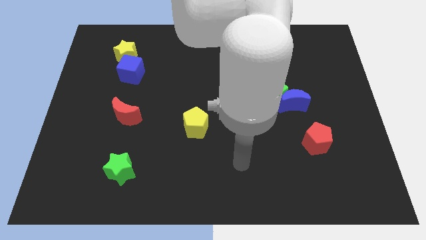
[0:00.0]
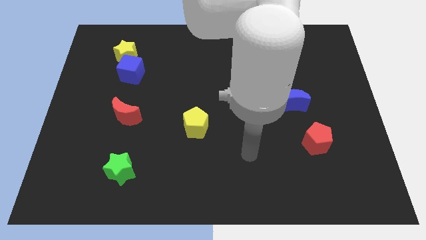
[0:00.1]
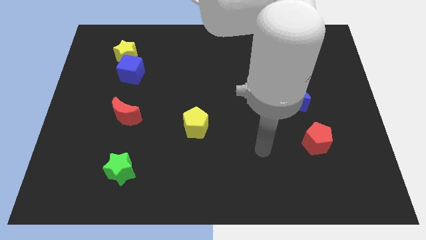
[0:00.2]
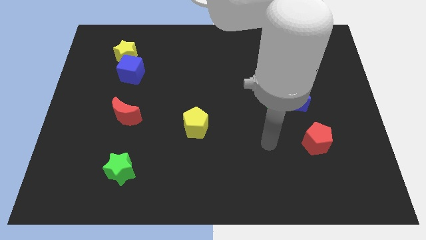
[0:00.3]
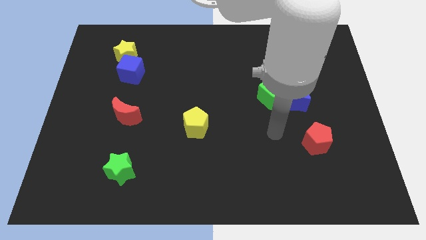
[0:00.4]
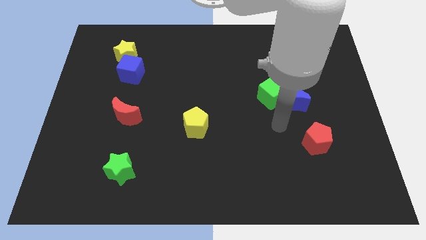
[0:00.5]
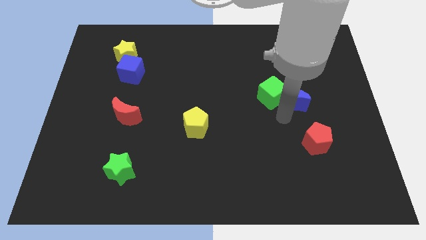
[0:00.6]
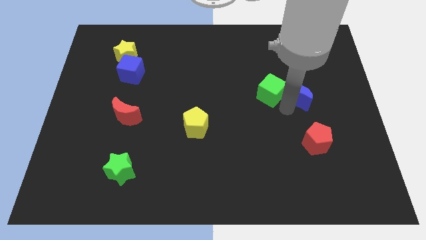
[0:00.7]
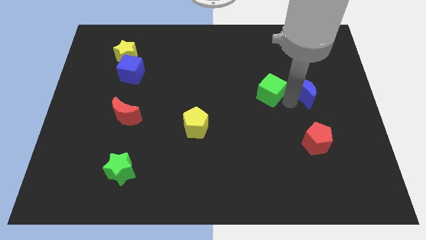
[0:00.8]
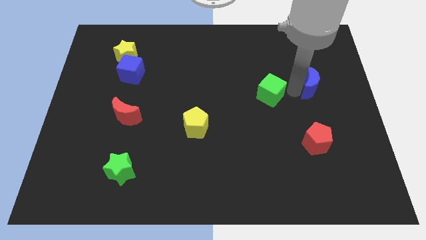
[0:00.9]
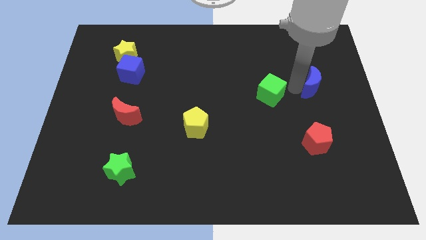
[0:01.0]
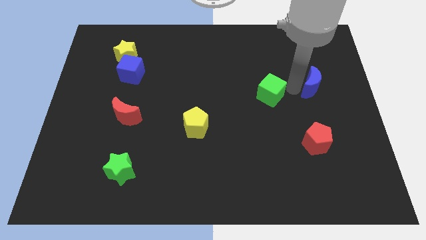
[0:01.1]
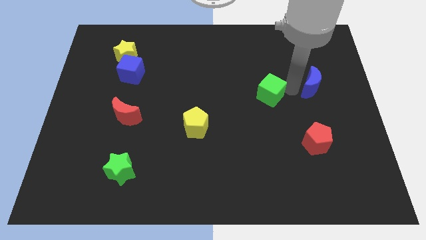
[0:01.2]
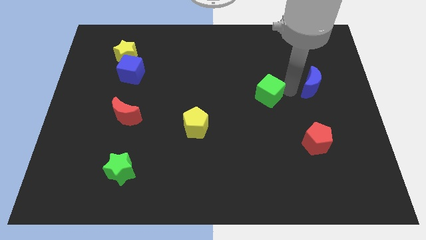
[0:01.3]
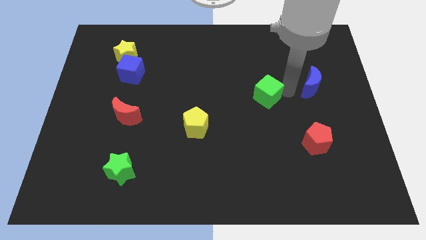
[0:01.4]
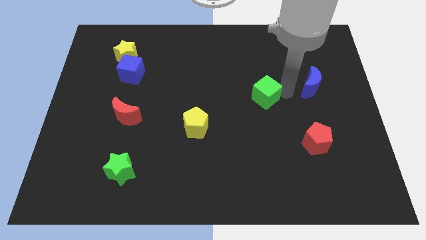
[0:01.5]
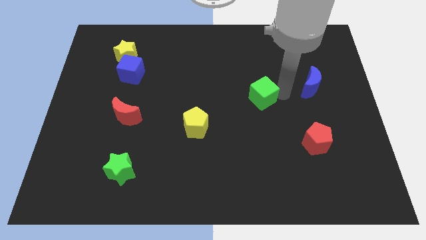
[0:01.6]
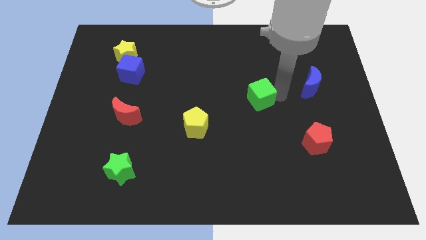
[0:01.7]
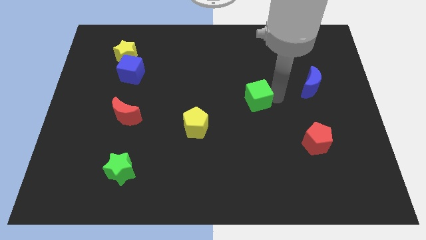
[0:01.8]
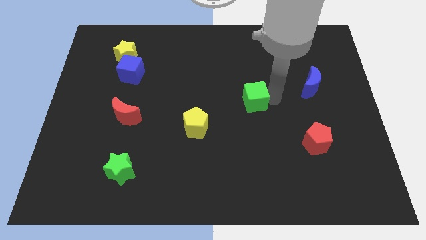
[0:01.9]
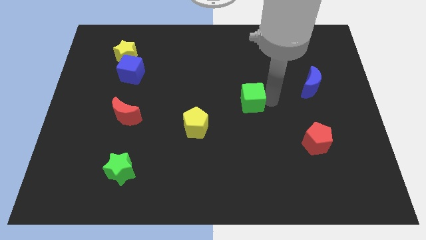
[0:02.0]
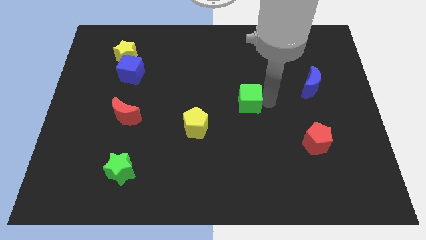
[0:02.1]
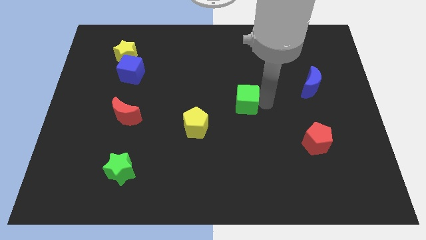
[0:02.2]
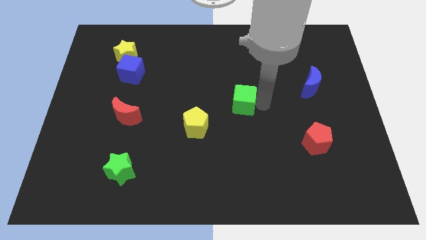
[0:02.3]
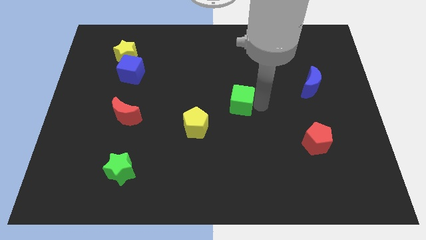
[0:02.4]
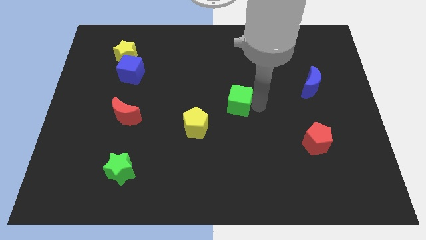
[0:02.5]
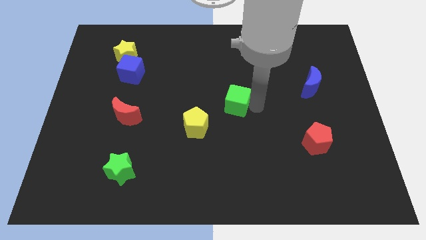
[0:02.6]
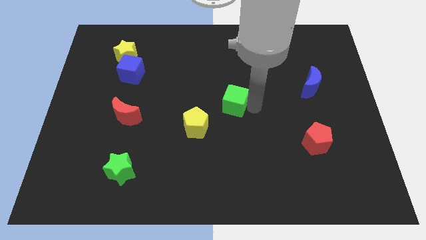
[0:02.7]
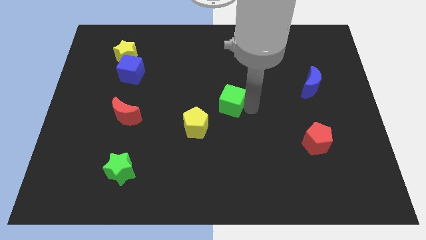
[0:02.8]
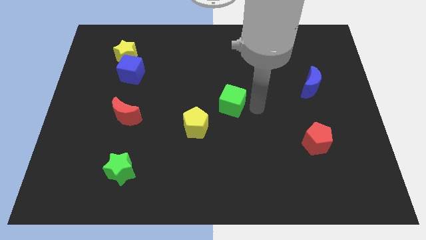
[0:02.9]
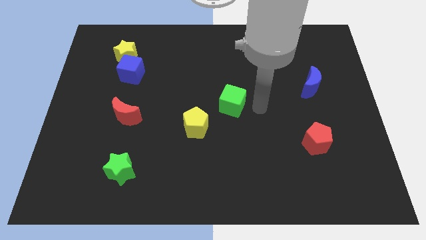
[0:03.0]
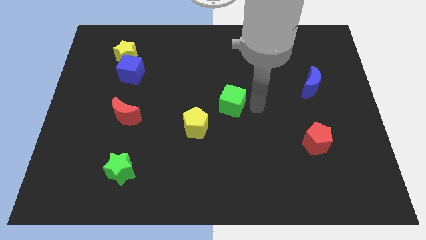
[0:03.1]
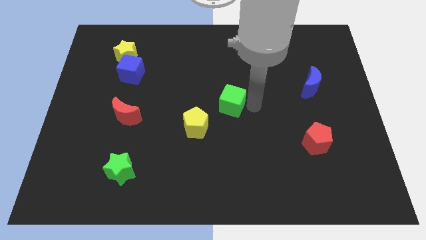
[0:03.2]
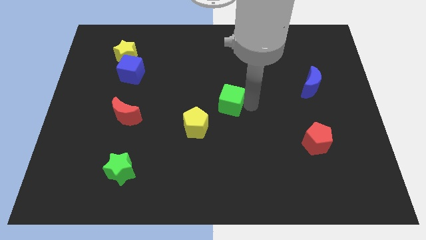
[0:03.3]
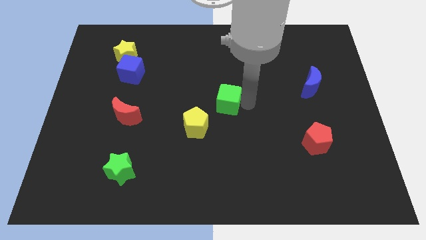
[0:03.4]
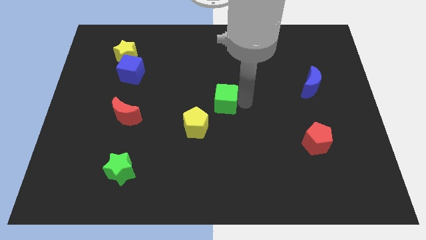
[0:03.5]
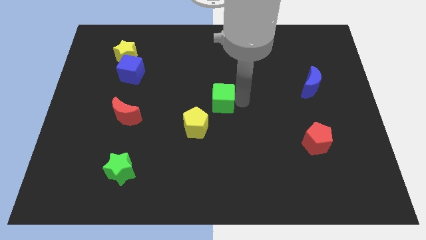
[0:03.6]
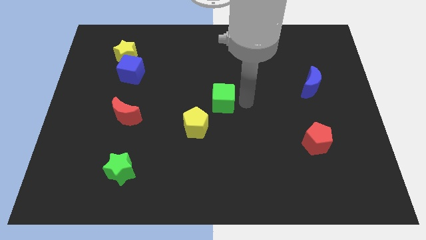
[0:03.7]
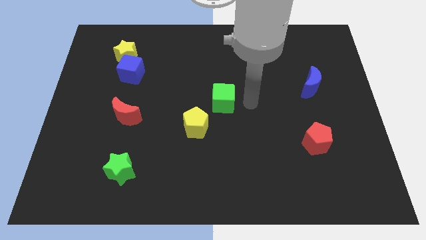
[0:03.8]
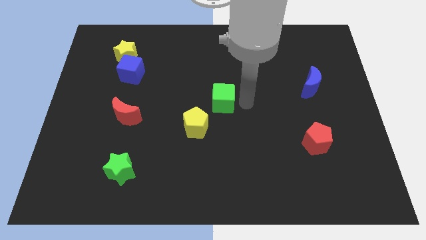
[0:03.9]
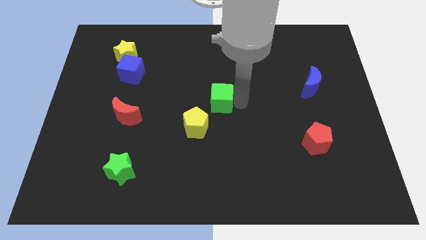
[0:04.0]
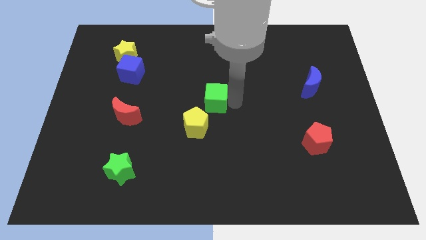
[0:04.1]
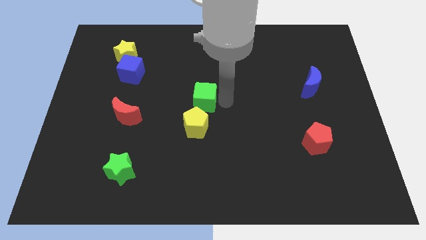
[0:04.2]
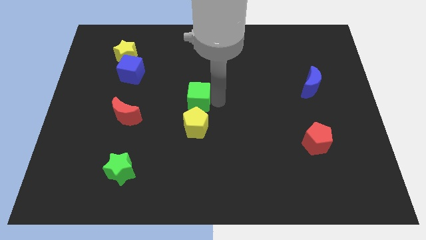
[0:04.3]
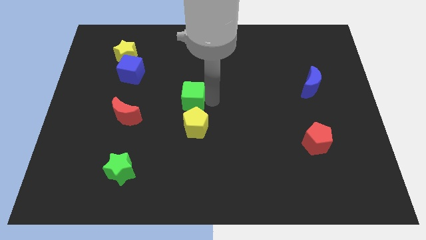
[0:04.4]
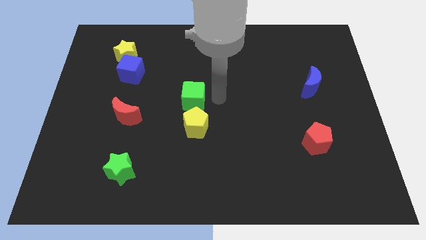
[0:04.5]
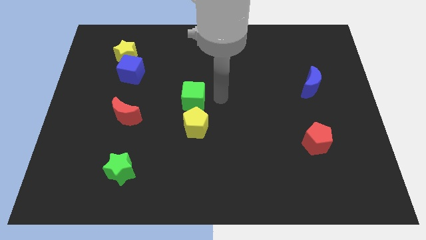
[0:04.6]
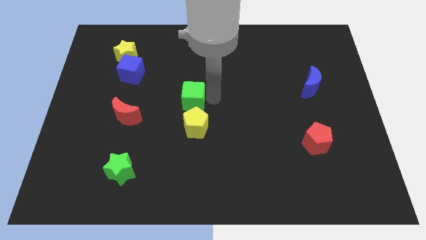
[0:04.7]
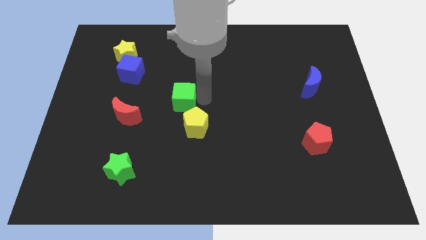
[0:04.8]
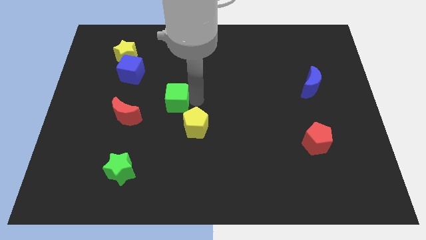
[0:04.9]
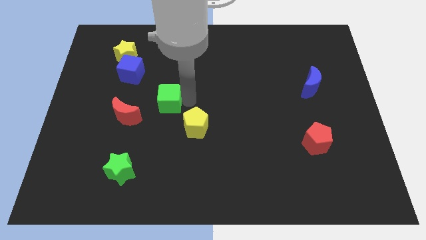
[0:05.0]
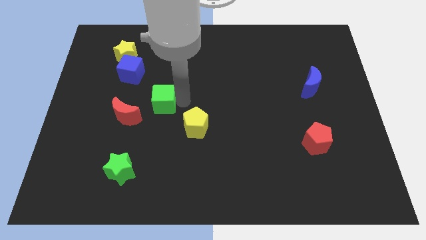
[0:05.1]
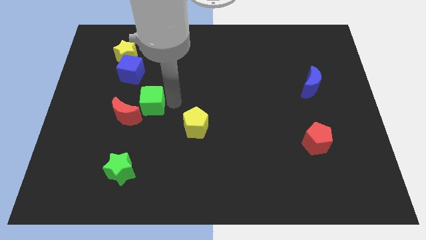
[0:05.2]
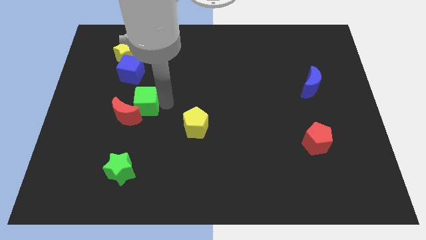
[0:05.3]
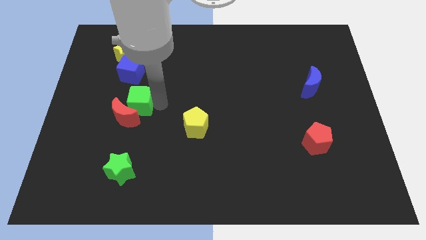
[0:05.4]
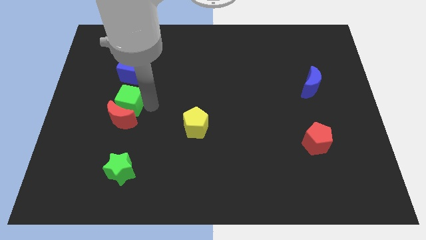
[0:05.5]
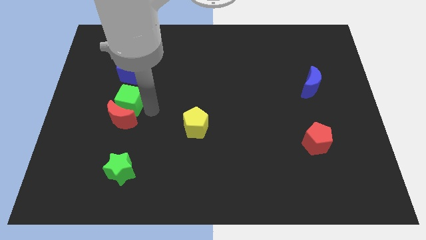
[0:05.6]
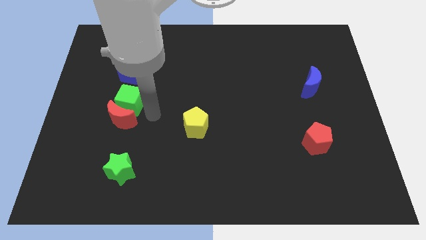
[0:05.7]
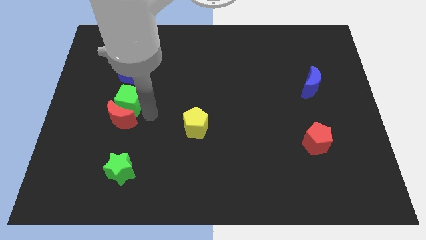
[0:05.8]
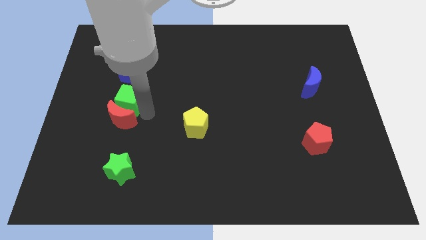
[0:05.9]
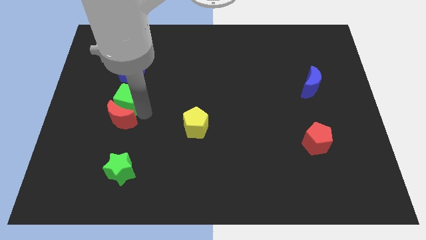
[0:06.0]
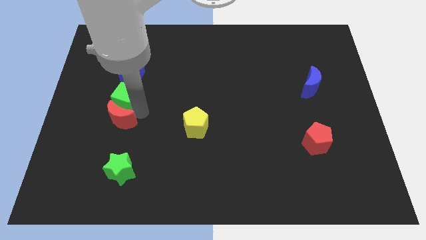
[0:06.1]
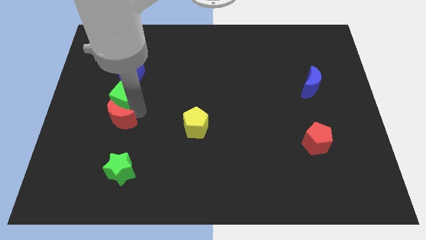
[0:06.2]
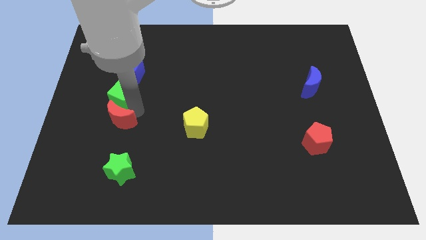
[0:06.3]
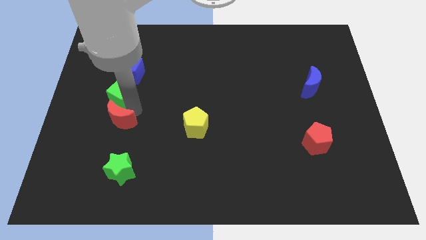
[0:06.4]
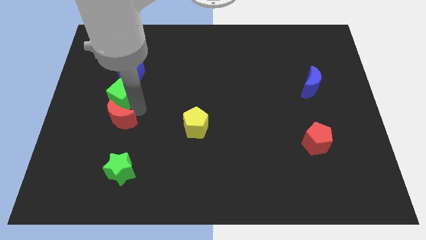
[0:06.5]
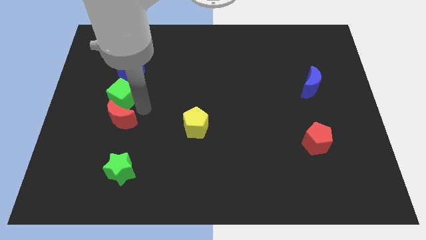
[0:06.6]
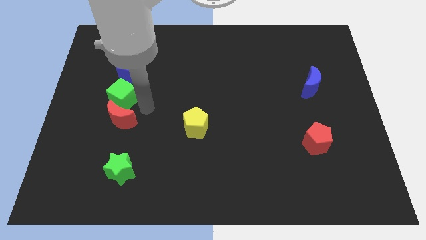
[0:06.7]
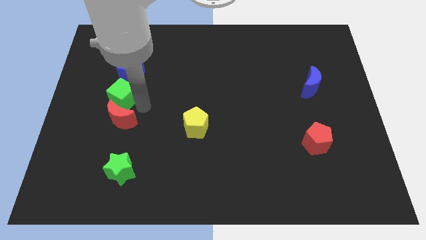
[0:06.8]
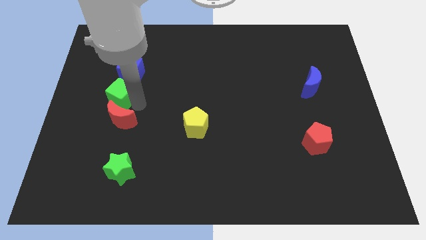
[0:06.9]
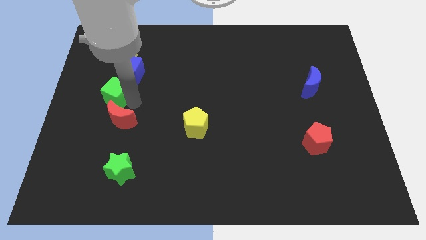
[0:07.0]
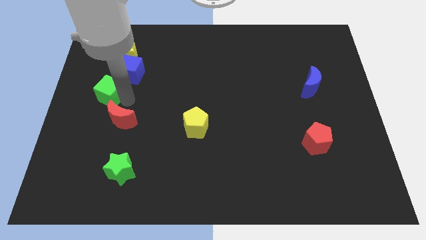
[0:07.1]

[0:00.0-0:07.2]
put the green cube to the center left

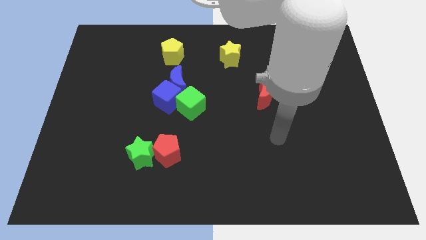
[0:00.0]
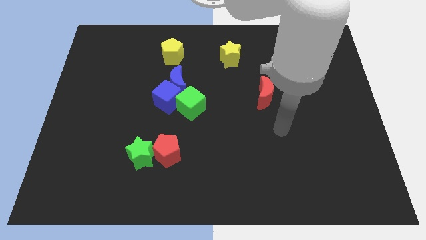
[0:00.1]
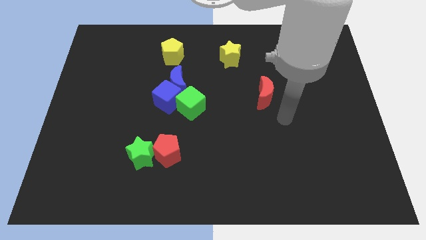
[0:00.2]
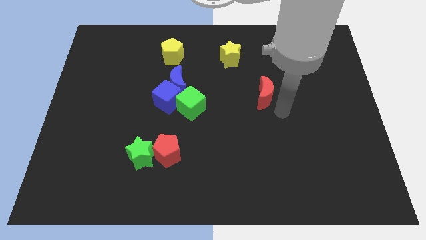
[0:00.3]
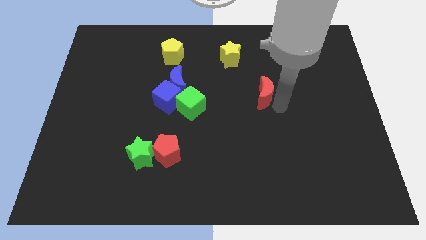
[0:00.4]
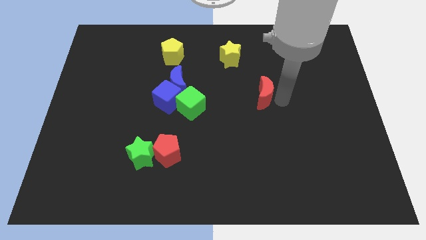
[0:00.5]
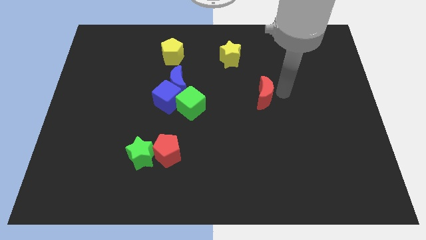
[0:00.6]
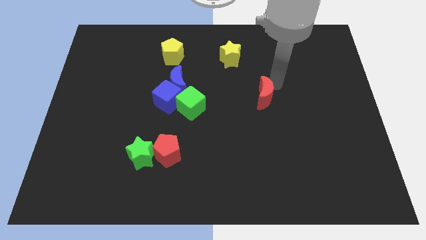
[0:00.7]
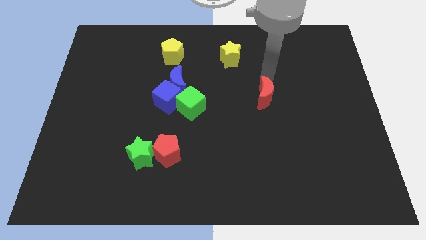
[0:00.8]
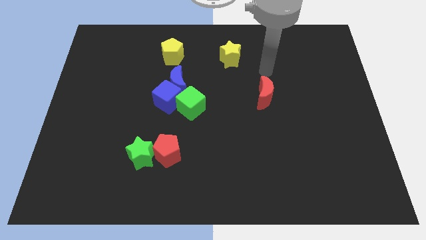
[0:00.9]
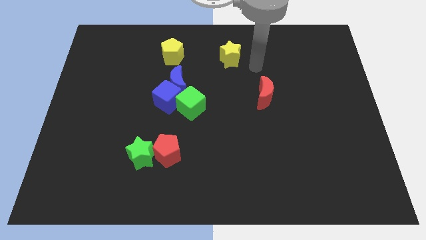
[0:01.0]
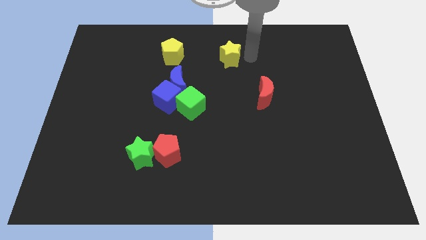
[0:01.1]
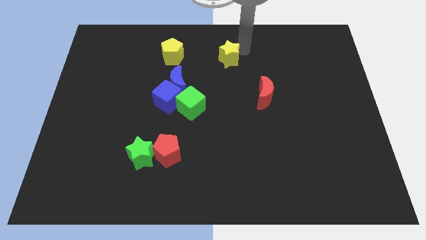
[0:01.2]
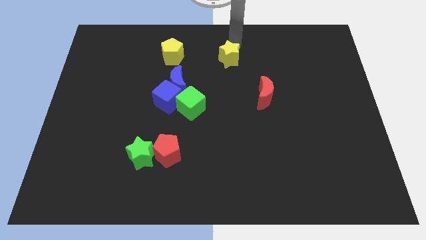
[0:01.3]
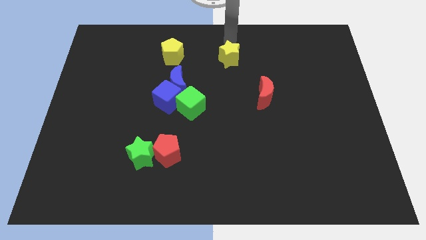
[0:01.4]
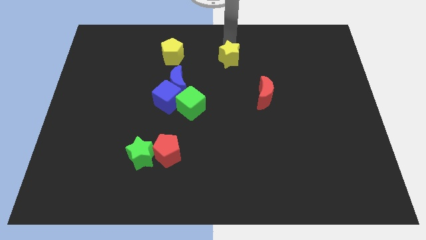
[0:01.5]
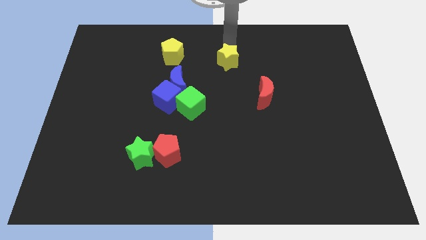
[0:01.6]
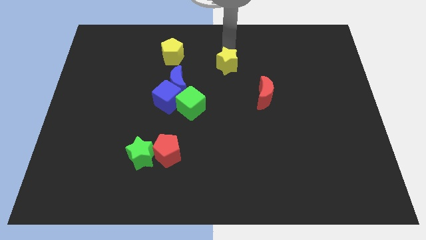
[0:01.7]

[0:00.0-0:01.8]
move the yellow star to the middle
